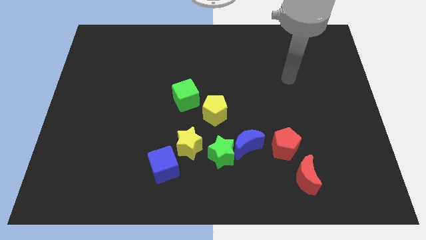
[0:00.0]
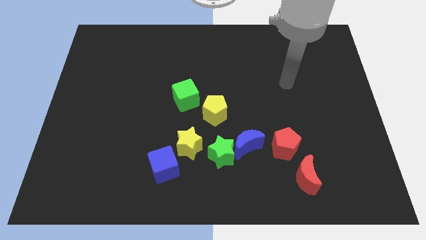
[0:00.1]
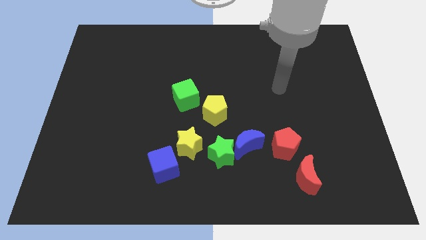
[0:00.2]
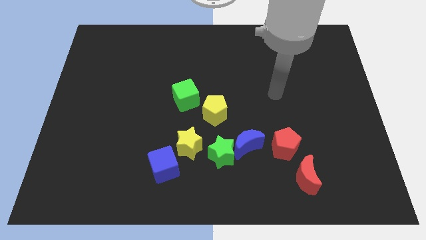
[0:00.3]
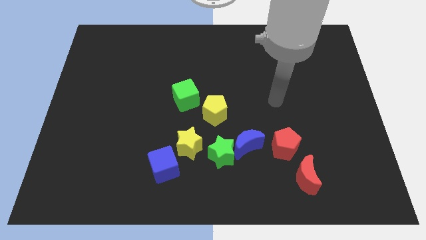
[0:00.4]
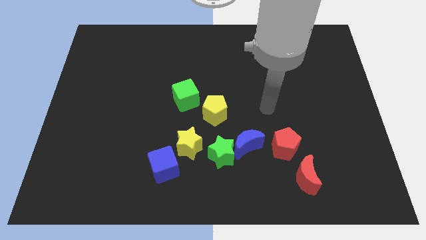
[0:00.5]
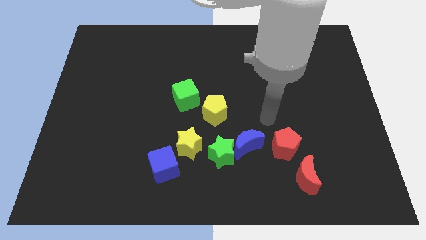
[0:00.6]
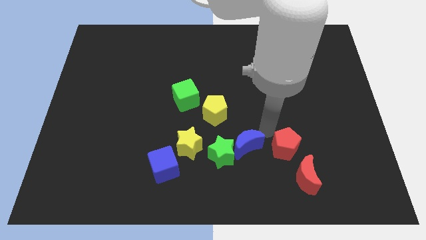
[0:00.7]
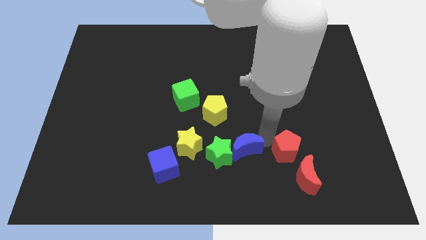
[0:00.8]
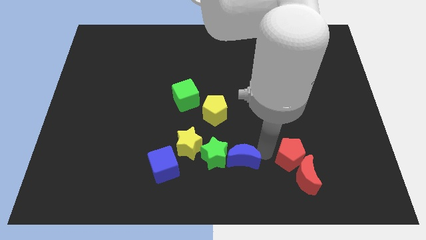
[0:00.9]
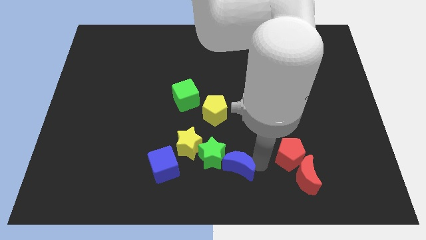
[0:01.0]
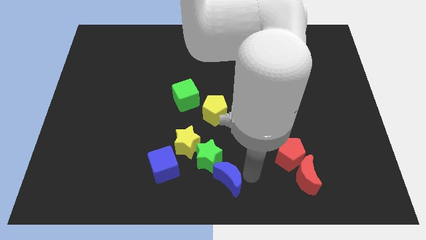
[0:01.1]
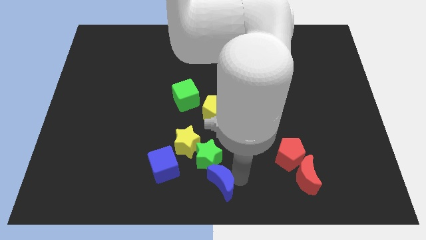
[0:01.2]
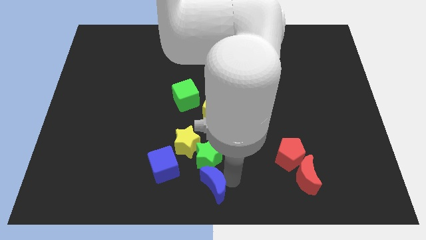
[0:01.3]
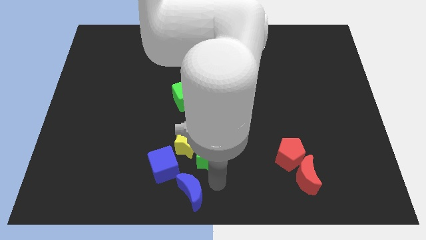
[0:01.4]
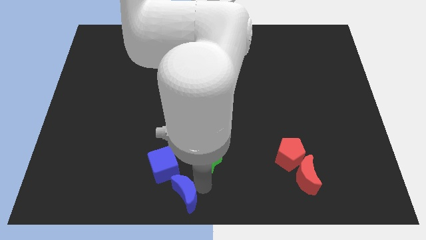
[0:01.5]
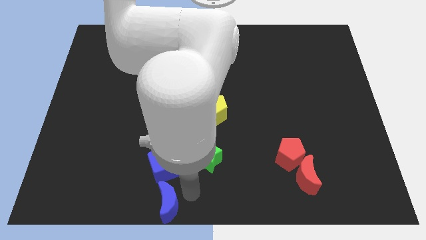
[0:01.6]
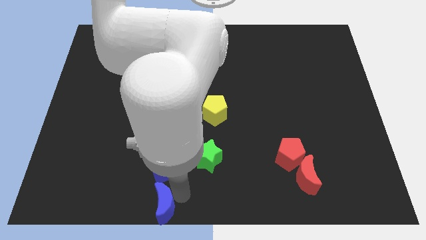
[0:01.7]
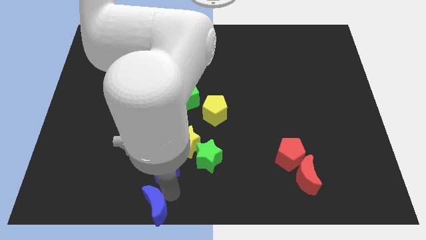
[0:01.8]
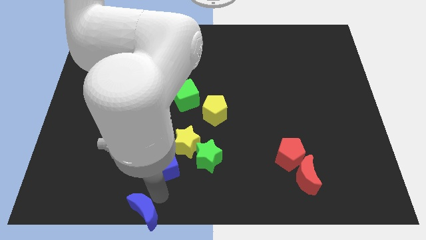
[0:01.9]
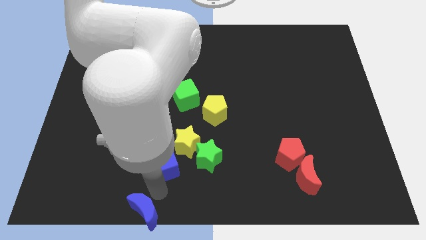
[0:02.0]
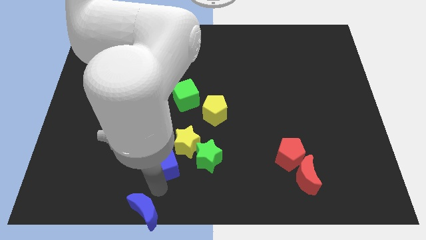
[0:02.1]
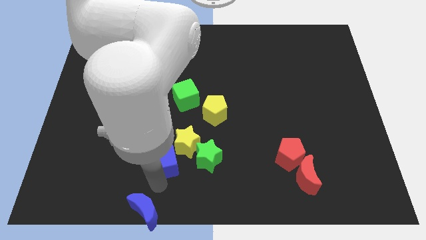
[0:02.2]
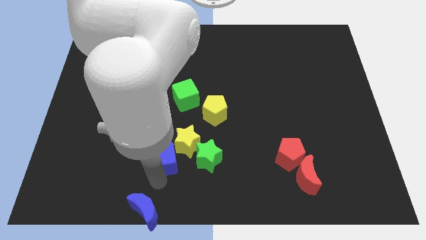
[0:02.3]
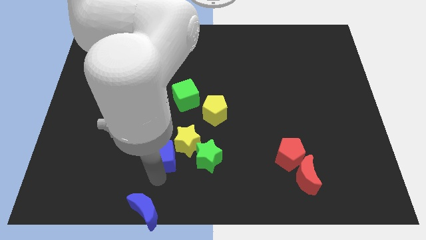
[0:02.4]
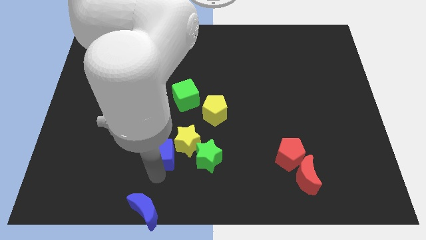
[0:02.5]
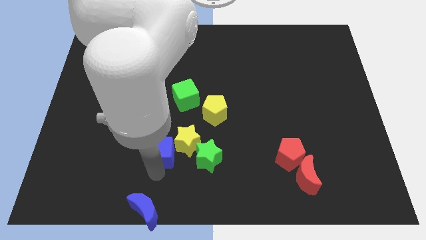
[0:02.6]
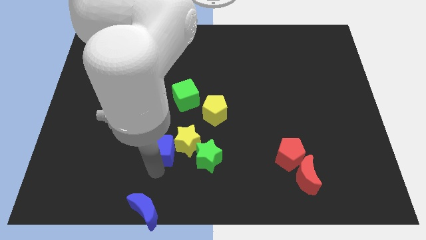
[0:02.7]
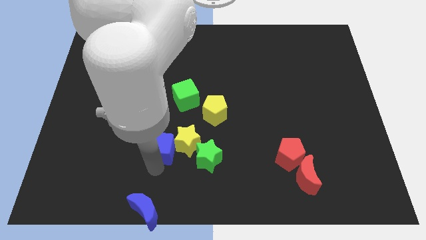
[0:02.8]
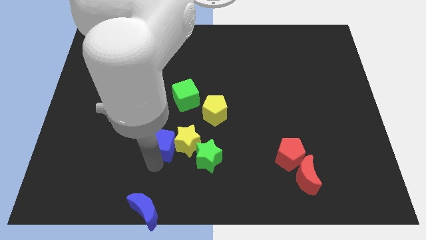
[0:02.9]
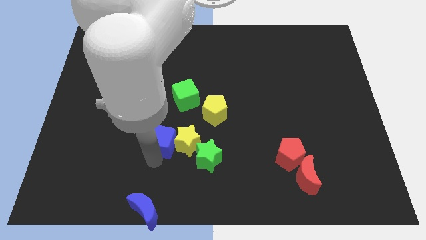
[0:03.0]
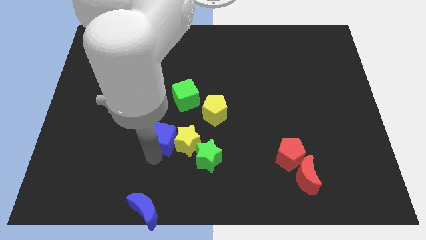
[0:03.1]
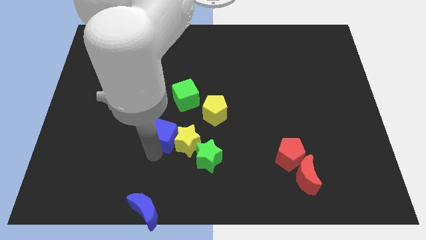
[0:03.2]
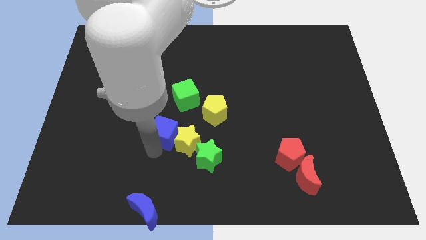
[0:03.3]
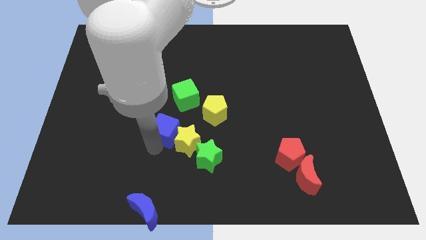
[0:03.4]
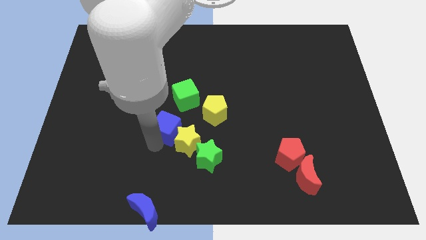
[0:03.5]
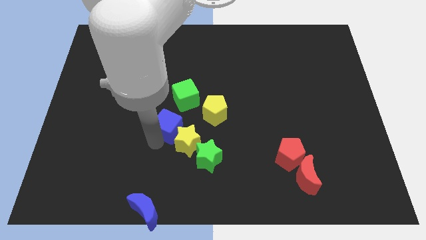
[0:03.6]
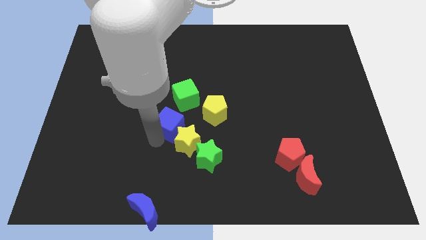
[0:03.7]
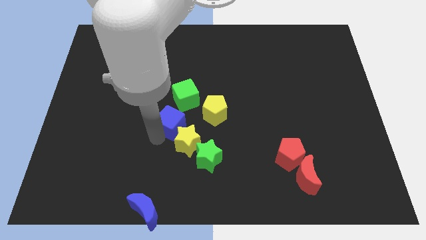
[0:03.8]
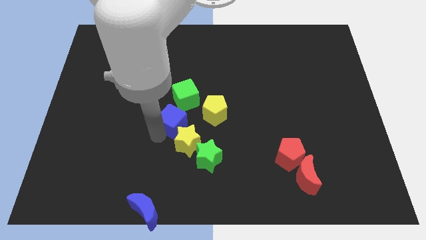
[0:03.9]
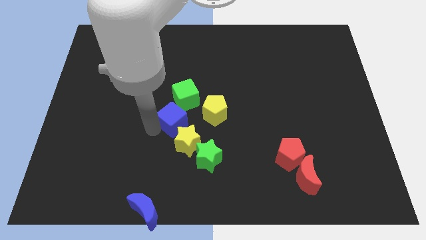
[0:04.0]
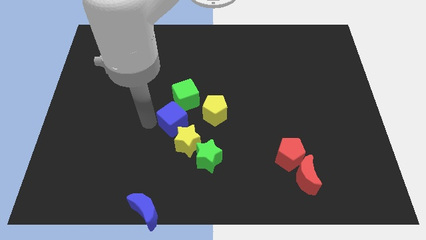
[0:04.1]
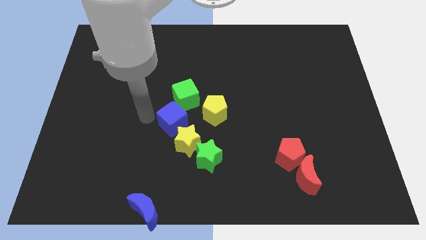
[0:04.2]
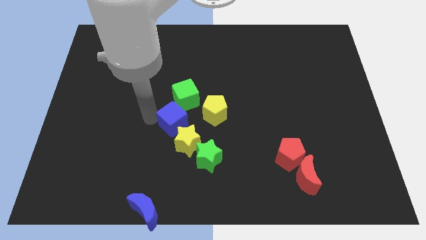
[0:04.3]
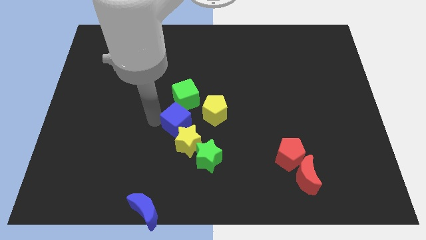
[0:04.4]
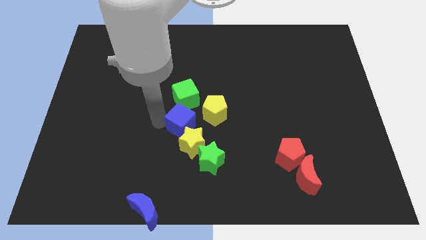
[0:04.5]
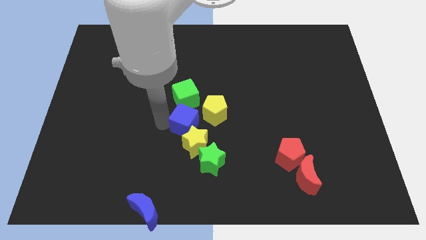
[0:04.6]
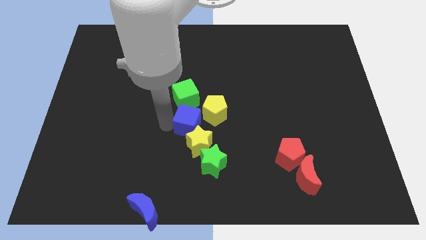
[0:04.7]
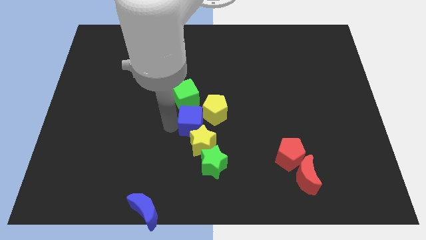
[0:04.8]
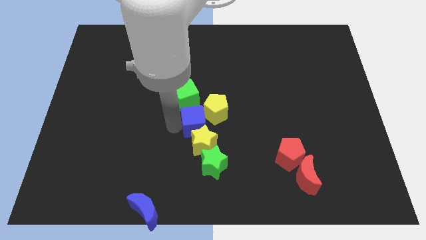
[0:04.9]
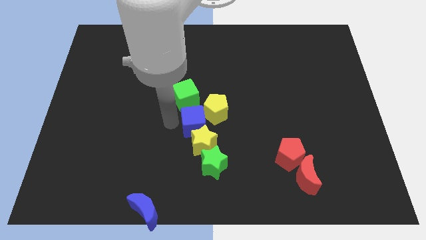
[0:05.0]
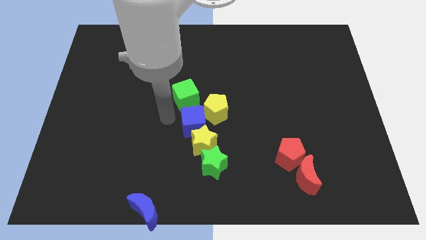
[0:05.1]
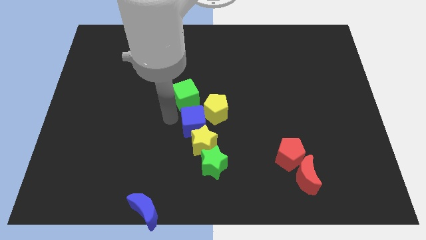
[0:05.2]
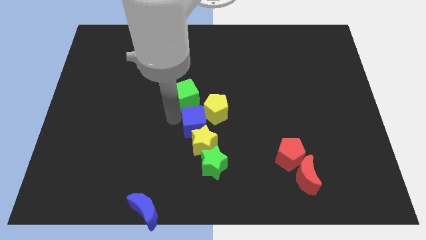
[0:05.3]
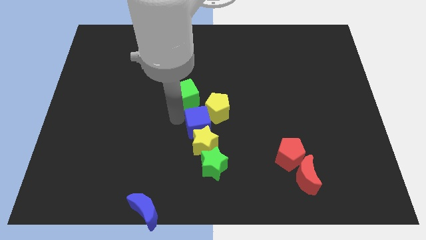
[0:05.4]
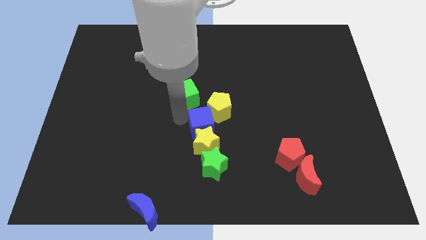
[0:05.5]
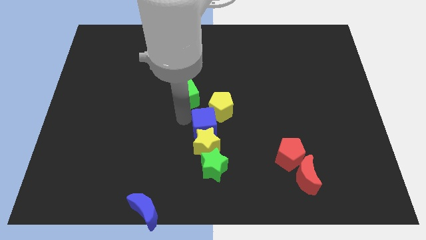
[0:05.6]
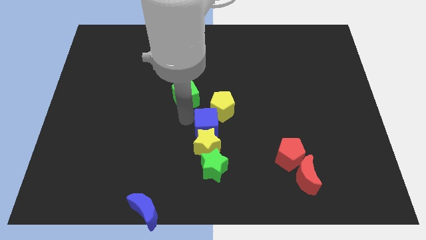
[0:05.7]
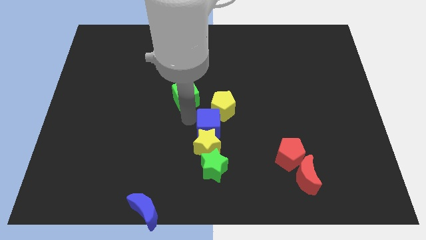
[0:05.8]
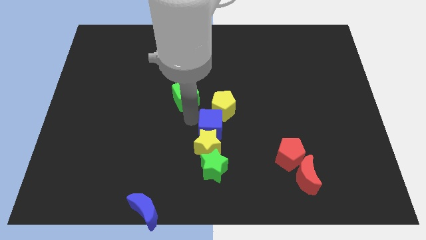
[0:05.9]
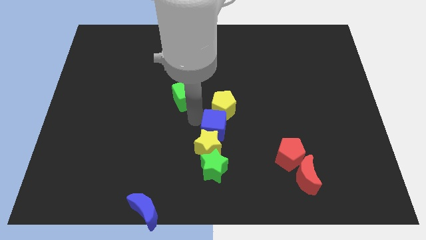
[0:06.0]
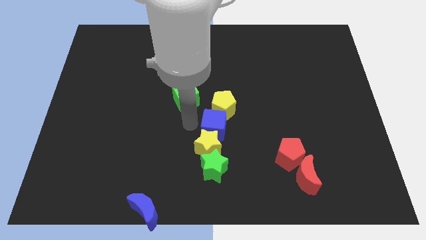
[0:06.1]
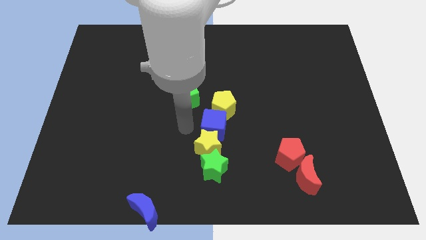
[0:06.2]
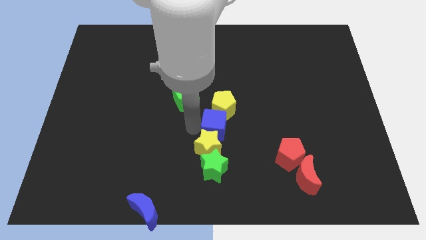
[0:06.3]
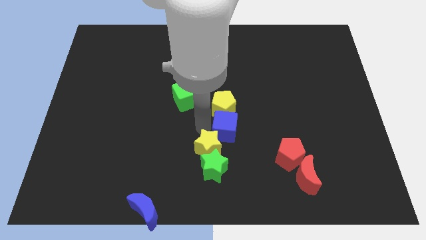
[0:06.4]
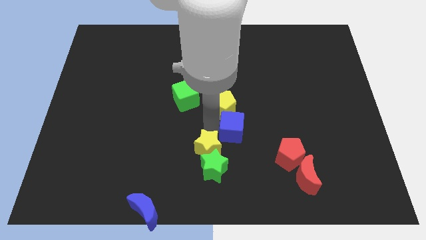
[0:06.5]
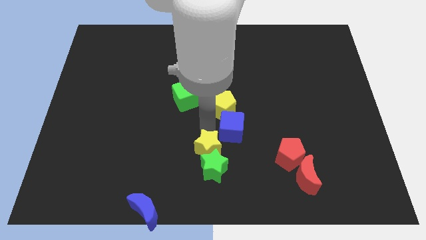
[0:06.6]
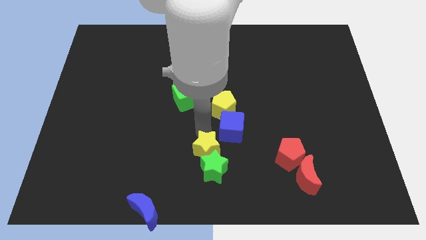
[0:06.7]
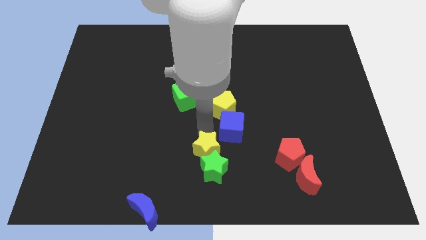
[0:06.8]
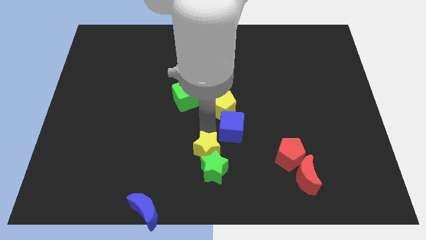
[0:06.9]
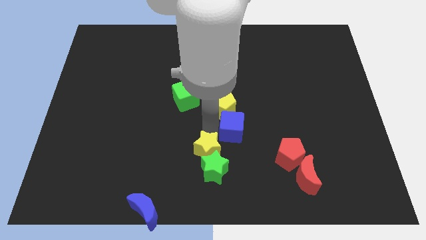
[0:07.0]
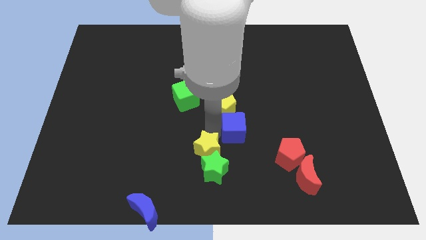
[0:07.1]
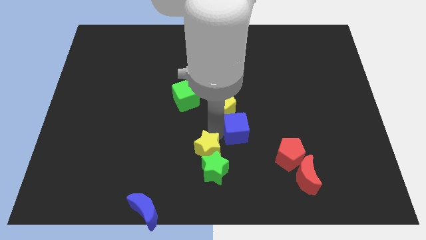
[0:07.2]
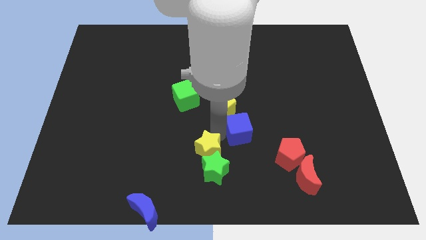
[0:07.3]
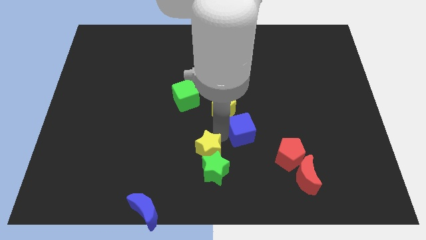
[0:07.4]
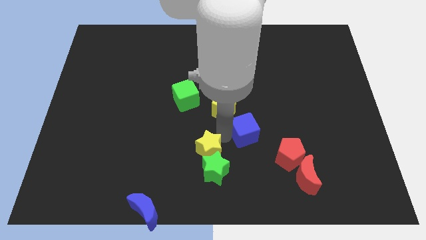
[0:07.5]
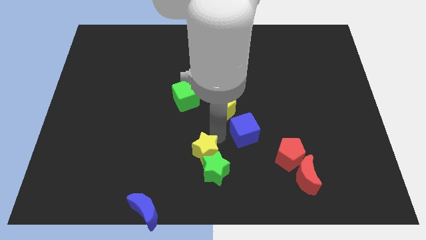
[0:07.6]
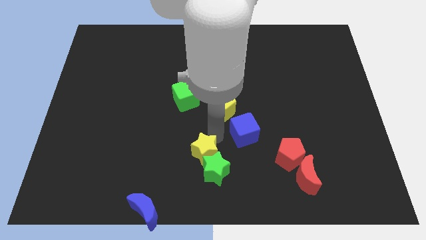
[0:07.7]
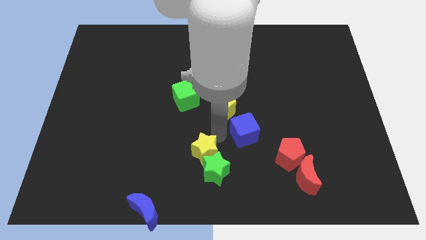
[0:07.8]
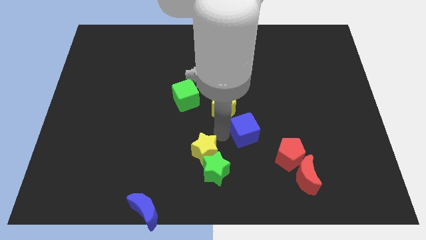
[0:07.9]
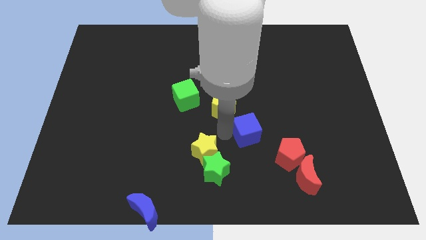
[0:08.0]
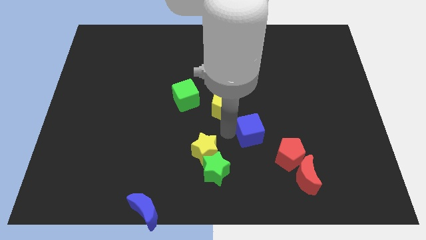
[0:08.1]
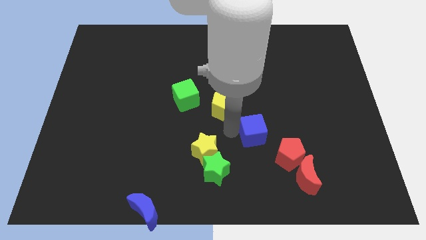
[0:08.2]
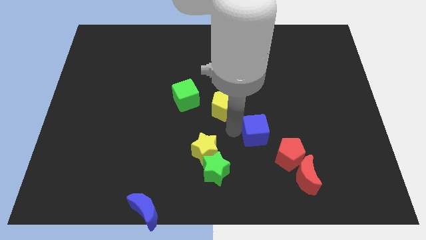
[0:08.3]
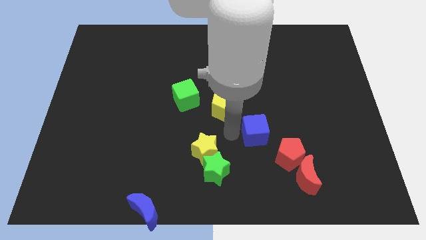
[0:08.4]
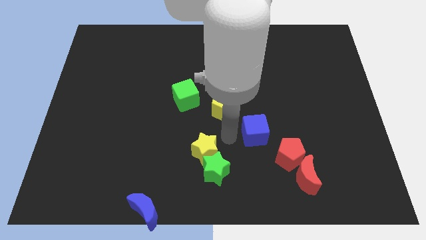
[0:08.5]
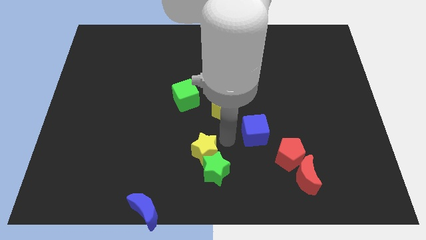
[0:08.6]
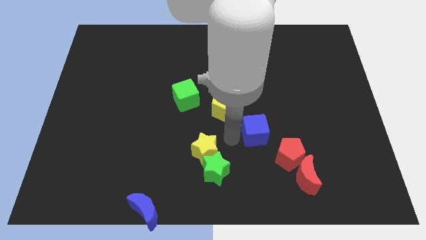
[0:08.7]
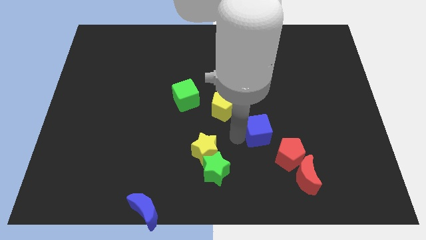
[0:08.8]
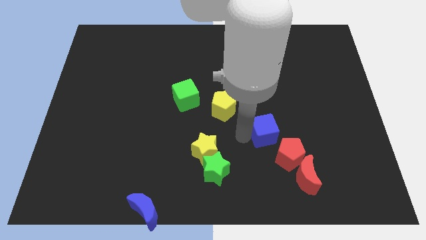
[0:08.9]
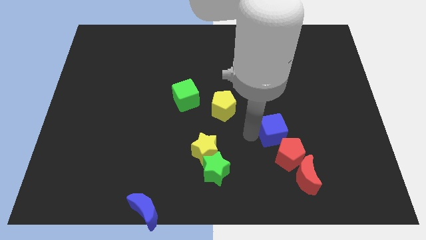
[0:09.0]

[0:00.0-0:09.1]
slide the blue cube right
